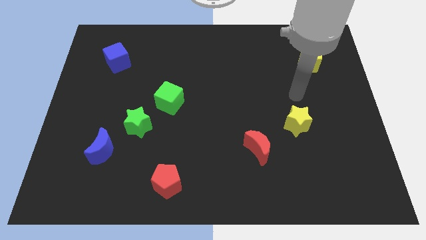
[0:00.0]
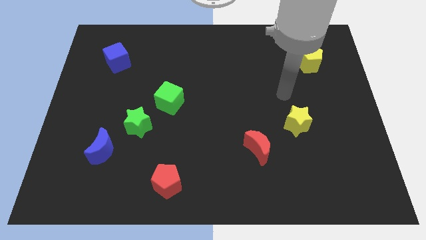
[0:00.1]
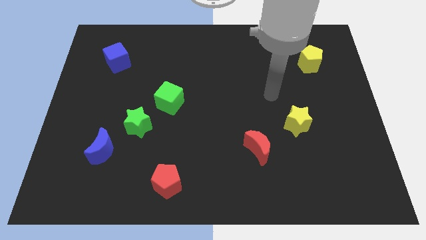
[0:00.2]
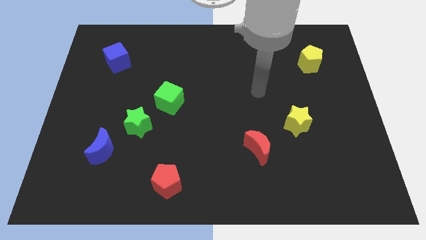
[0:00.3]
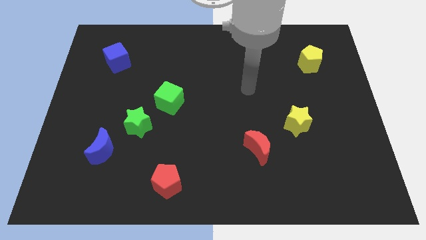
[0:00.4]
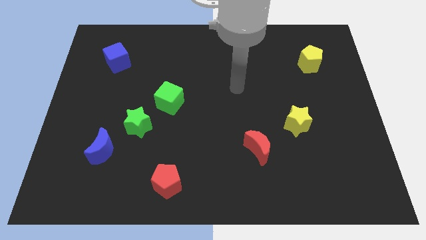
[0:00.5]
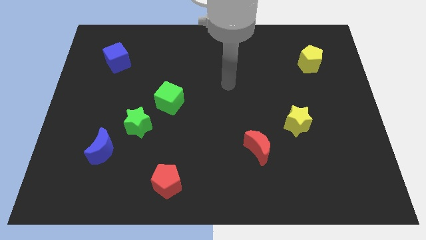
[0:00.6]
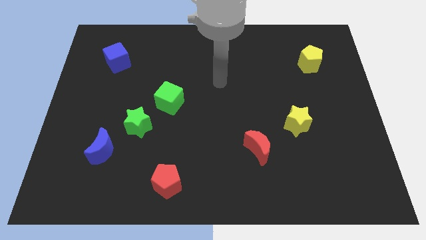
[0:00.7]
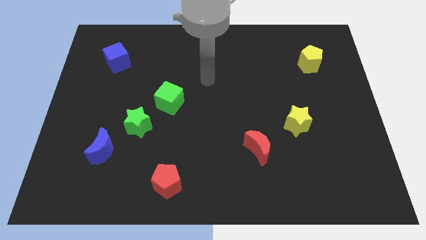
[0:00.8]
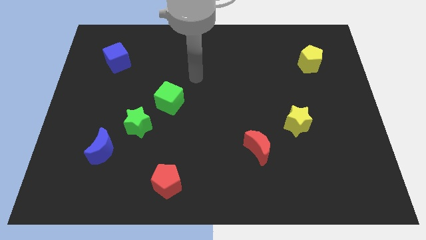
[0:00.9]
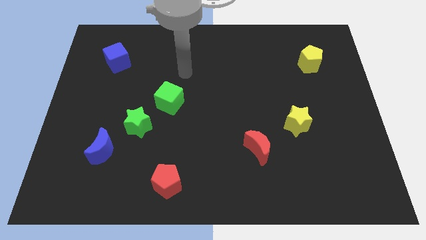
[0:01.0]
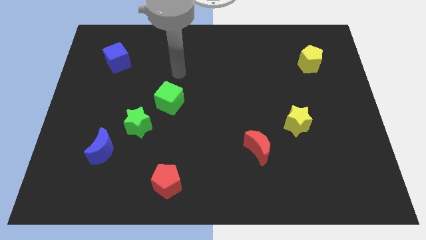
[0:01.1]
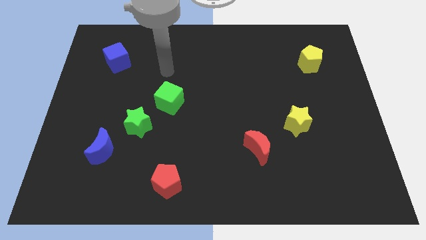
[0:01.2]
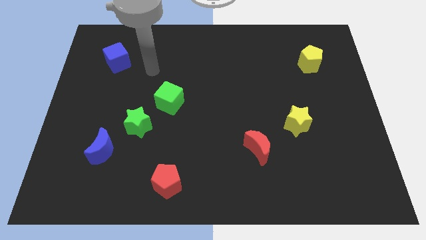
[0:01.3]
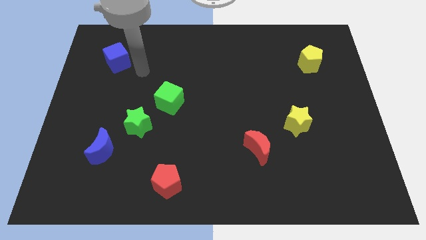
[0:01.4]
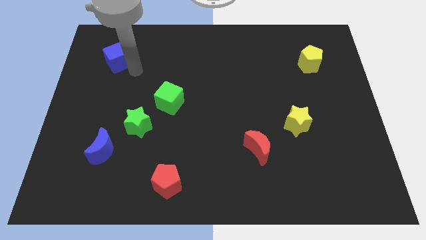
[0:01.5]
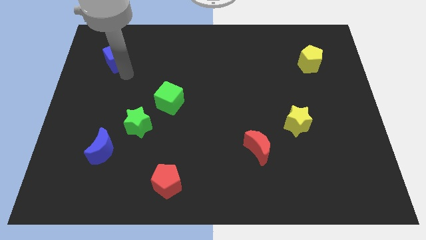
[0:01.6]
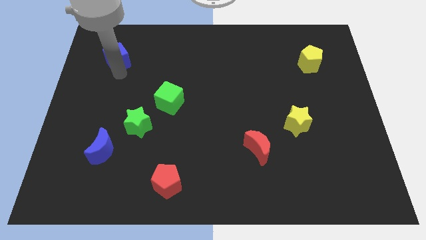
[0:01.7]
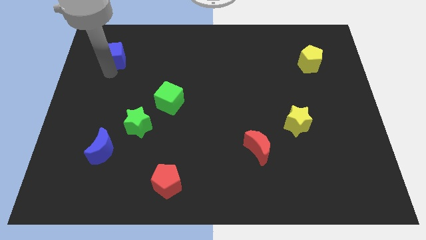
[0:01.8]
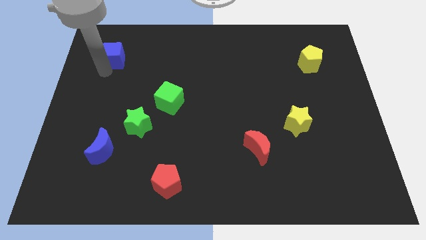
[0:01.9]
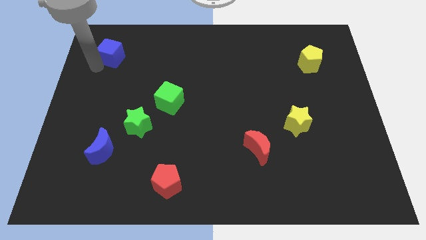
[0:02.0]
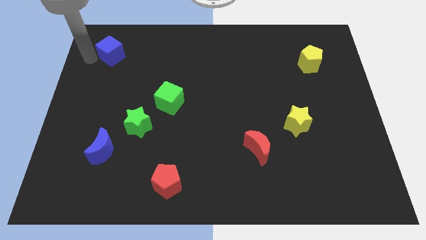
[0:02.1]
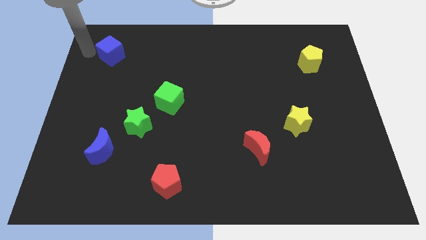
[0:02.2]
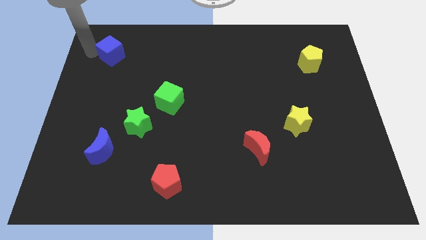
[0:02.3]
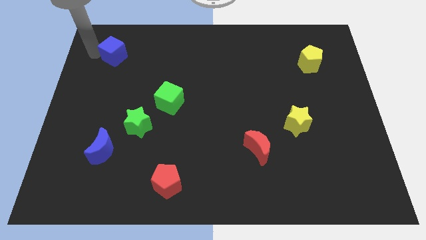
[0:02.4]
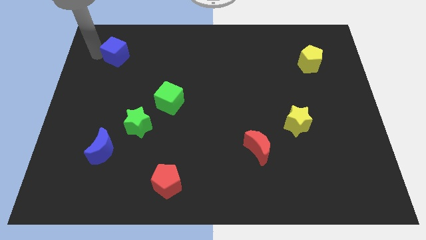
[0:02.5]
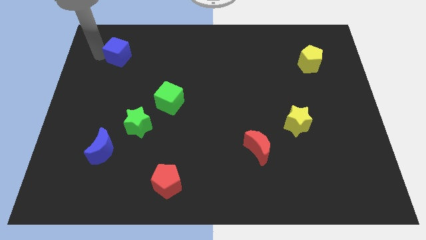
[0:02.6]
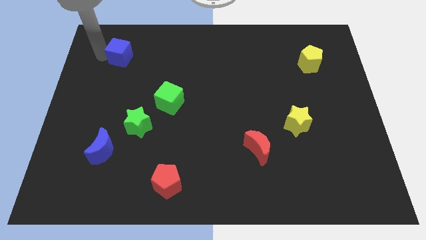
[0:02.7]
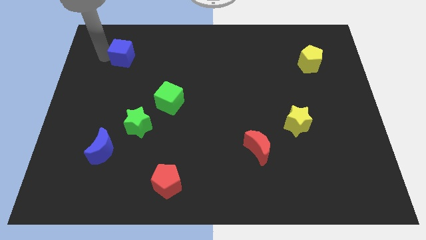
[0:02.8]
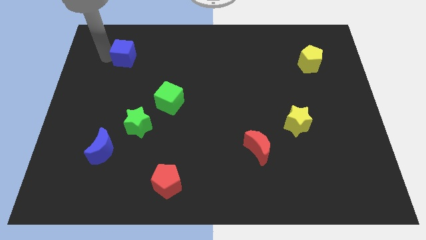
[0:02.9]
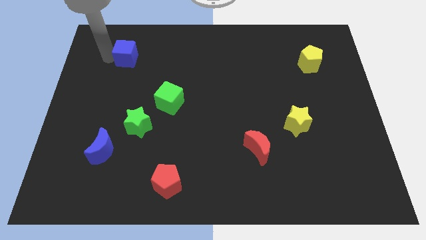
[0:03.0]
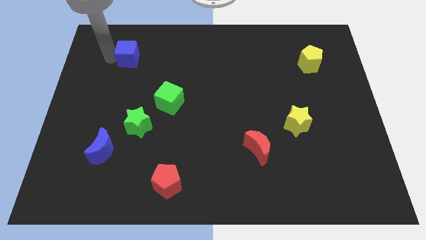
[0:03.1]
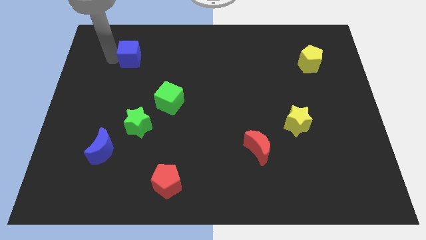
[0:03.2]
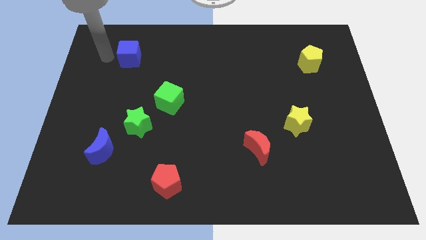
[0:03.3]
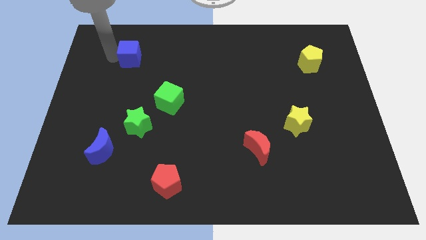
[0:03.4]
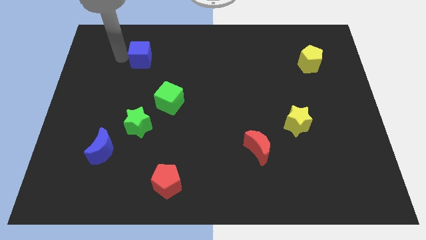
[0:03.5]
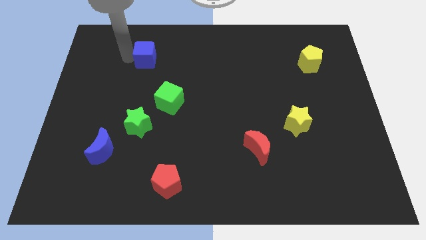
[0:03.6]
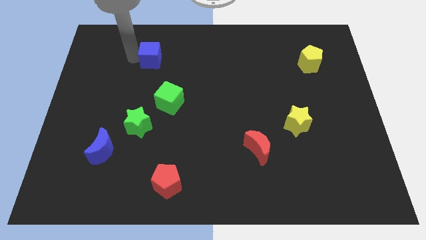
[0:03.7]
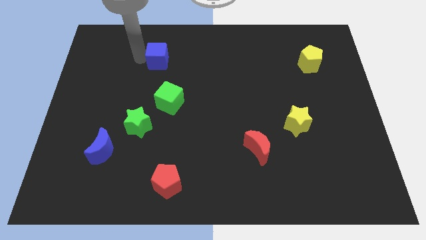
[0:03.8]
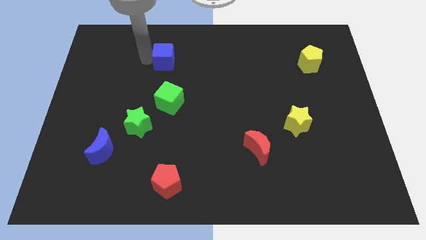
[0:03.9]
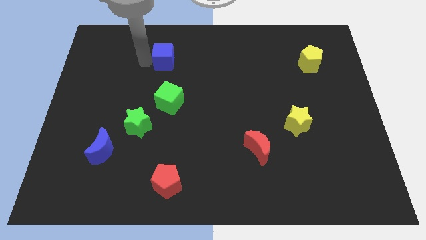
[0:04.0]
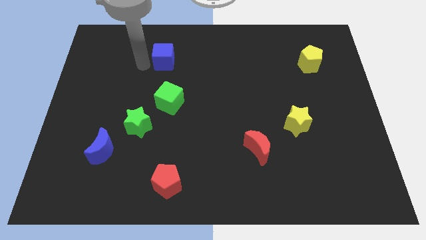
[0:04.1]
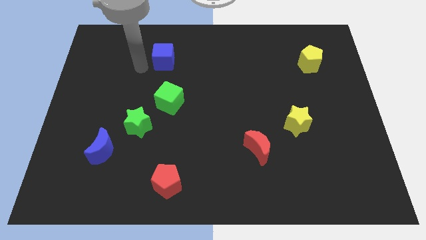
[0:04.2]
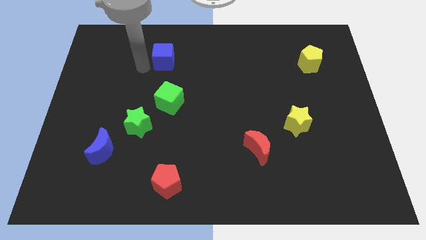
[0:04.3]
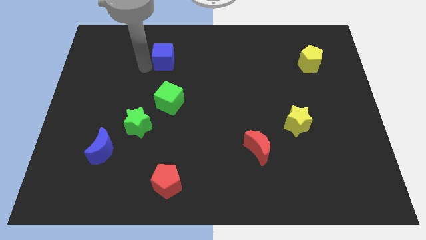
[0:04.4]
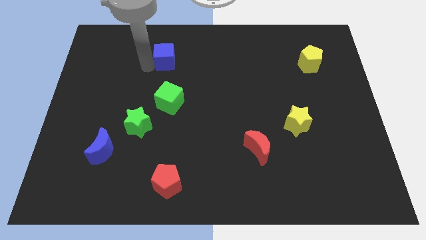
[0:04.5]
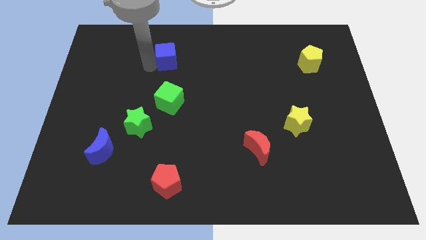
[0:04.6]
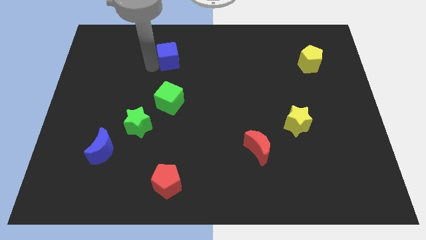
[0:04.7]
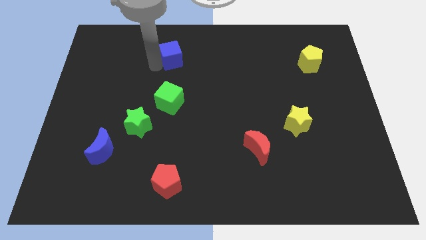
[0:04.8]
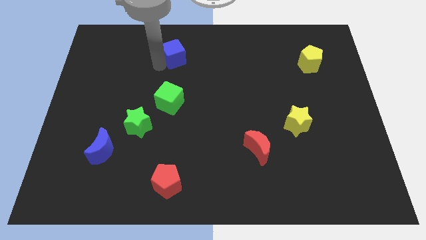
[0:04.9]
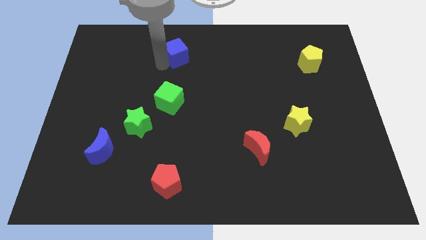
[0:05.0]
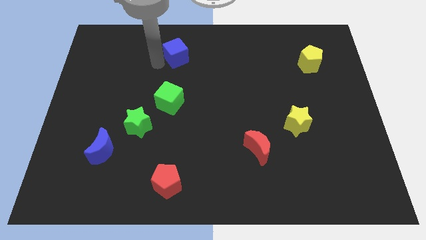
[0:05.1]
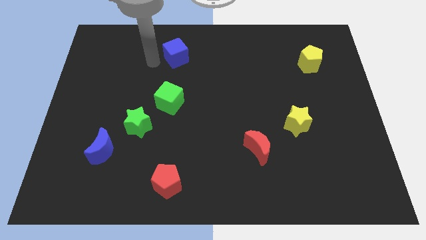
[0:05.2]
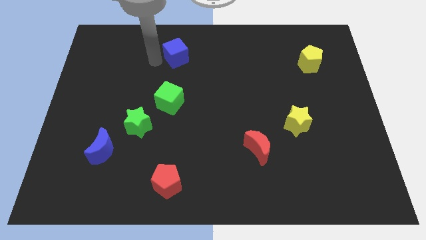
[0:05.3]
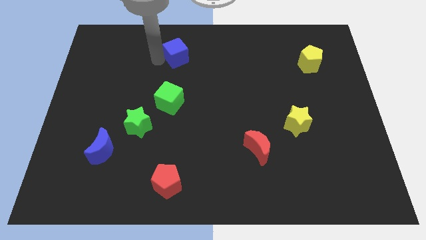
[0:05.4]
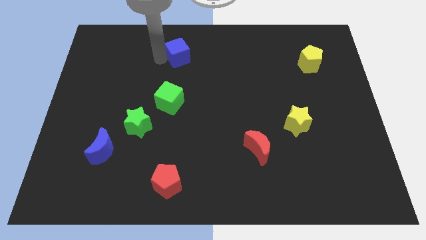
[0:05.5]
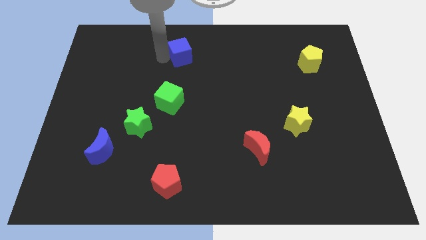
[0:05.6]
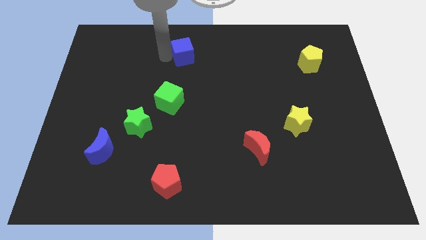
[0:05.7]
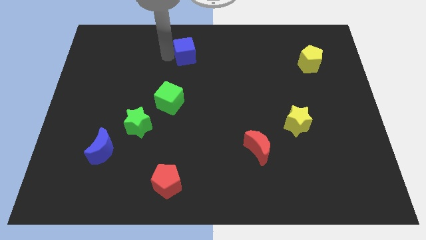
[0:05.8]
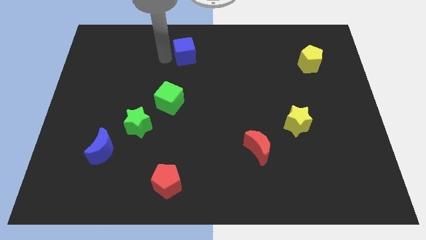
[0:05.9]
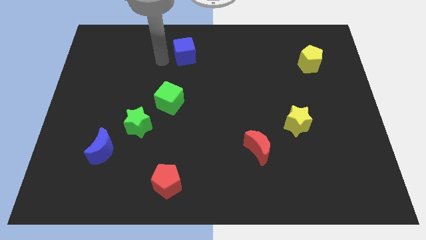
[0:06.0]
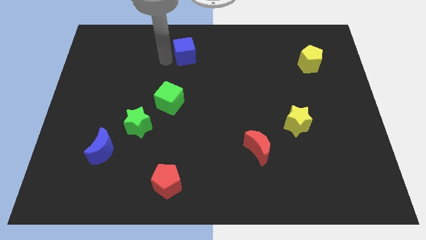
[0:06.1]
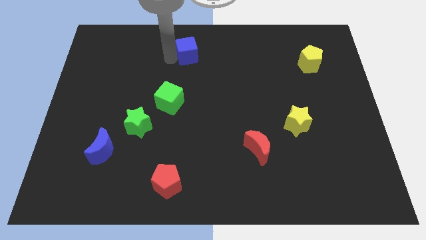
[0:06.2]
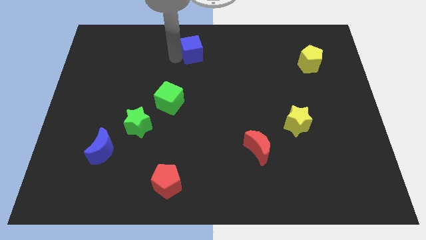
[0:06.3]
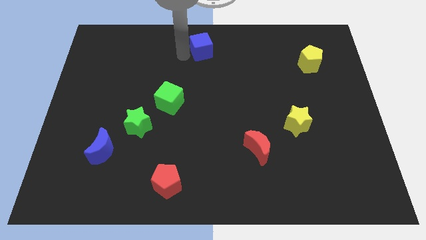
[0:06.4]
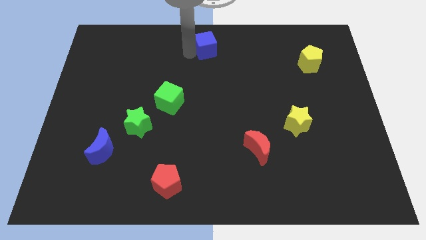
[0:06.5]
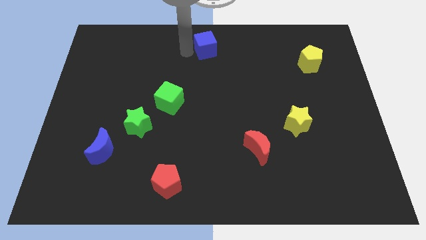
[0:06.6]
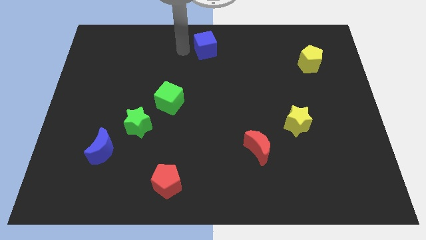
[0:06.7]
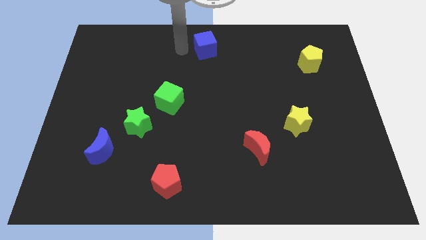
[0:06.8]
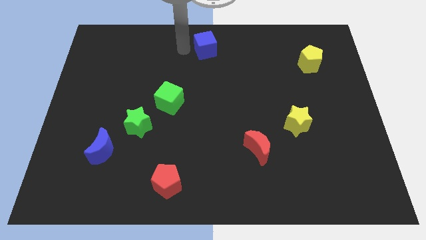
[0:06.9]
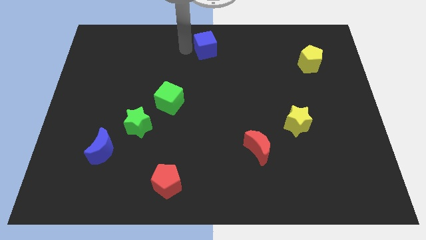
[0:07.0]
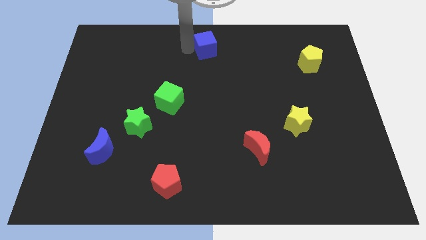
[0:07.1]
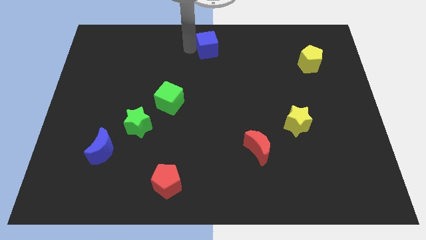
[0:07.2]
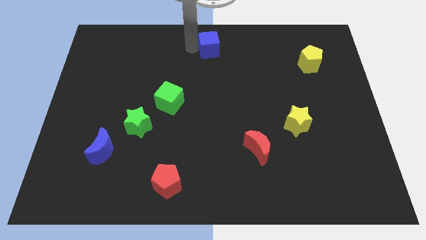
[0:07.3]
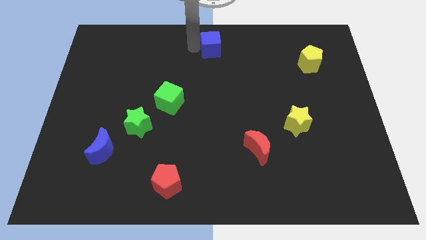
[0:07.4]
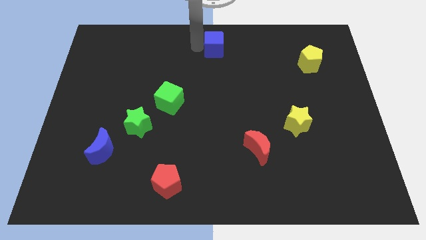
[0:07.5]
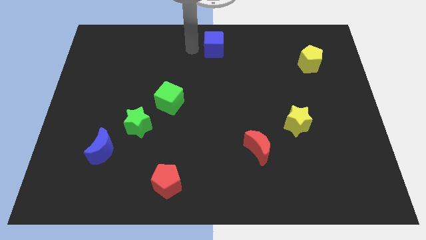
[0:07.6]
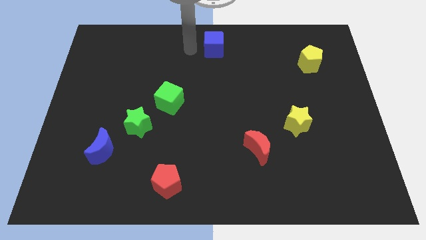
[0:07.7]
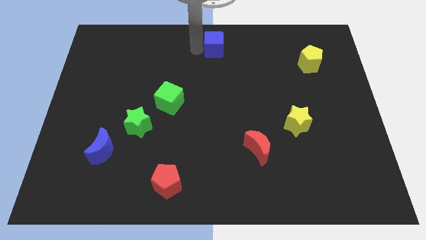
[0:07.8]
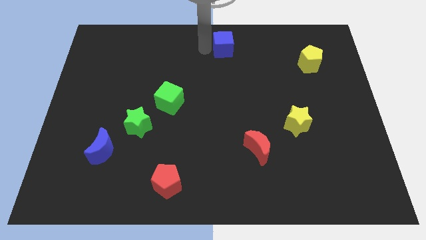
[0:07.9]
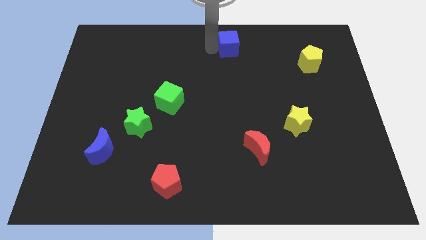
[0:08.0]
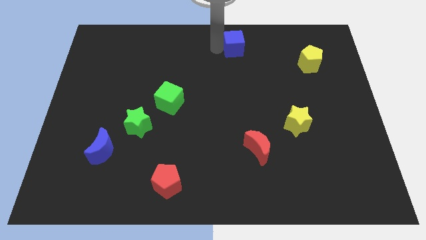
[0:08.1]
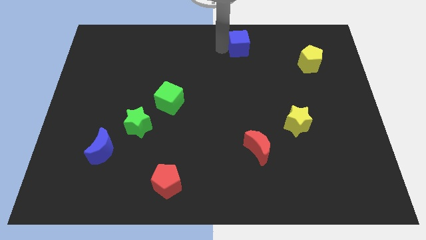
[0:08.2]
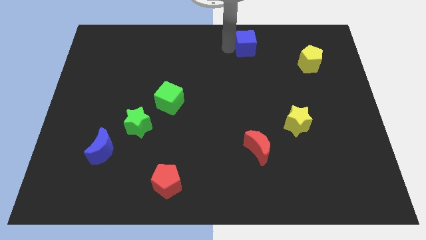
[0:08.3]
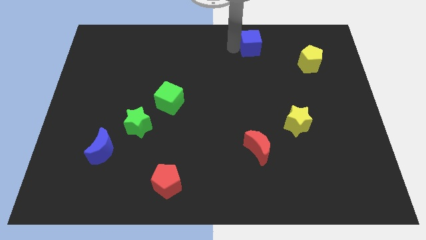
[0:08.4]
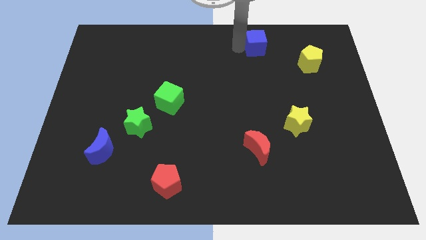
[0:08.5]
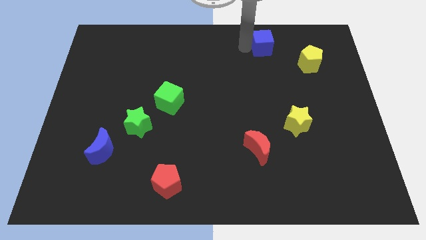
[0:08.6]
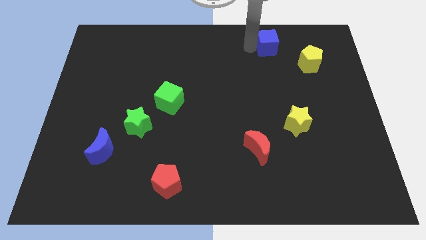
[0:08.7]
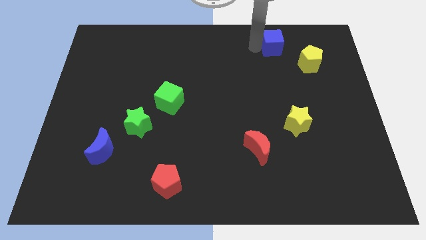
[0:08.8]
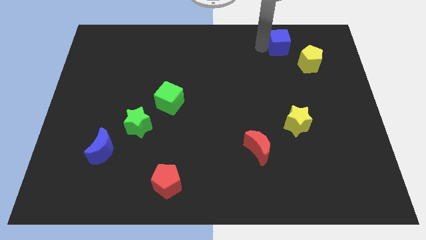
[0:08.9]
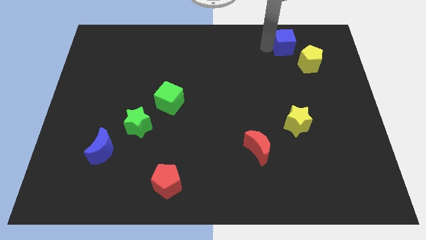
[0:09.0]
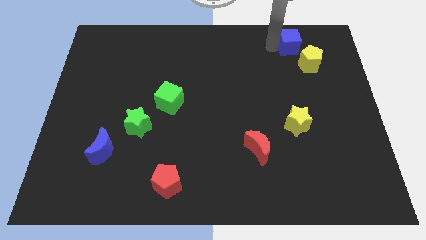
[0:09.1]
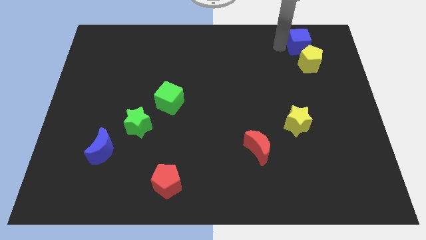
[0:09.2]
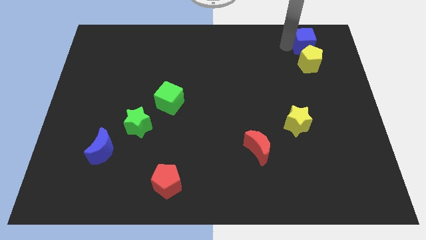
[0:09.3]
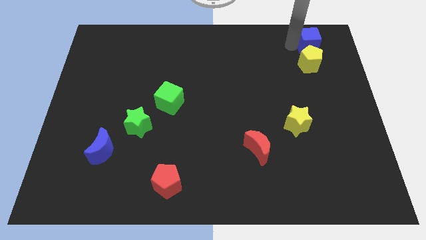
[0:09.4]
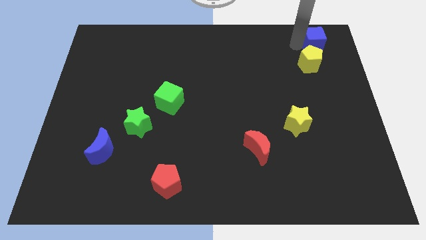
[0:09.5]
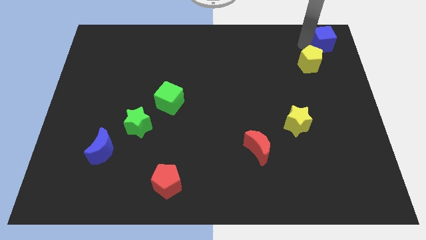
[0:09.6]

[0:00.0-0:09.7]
put the blue cube to the upper right corner
